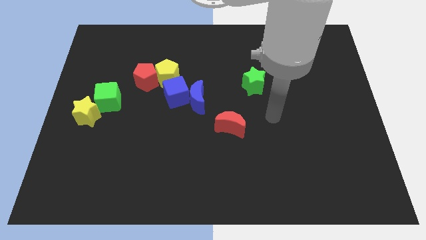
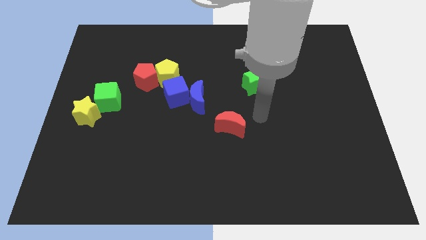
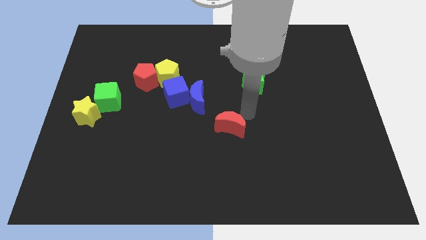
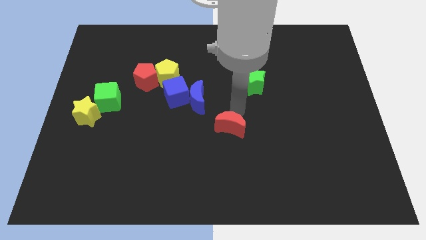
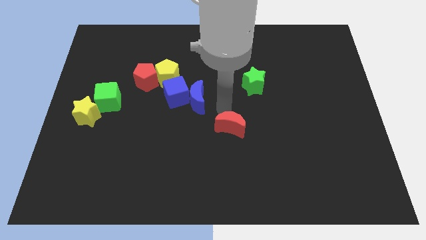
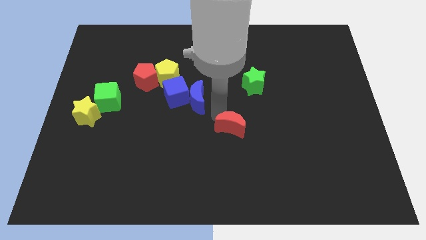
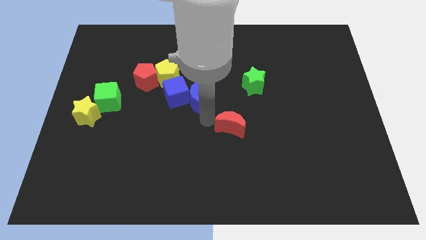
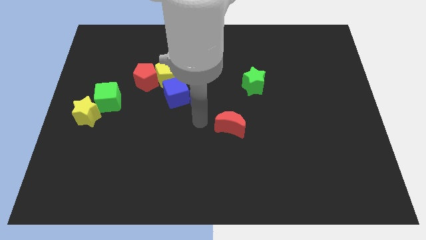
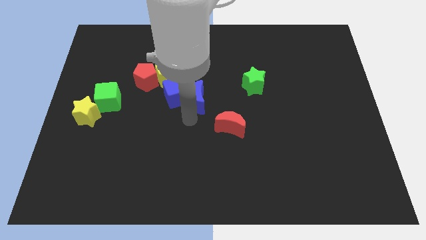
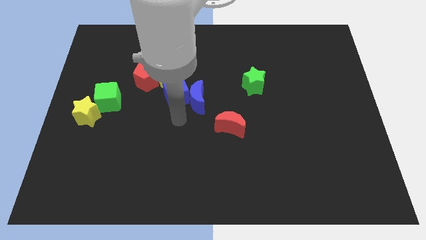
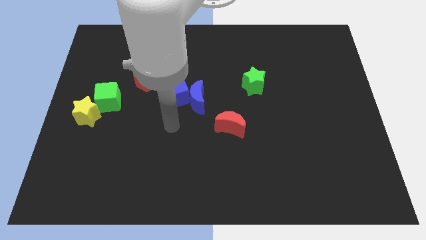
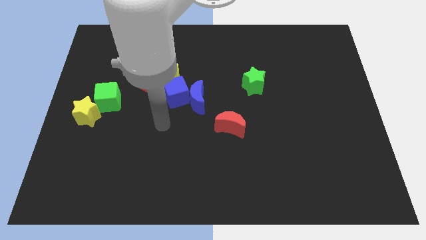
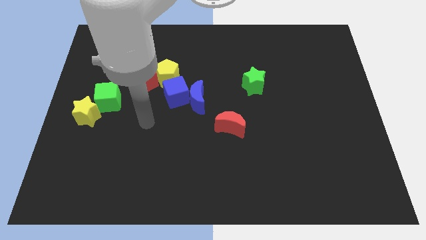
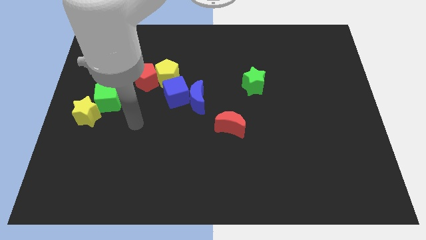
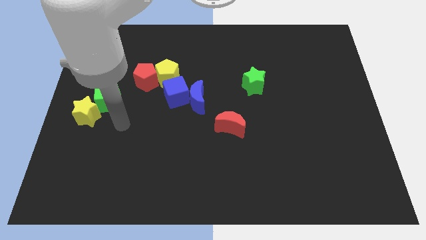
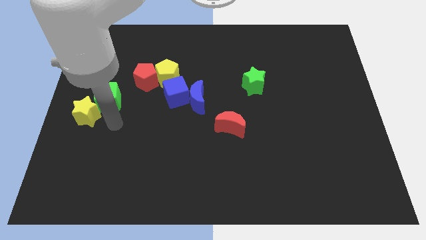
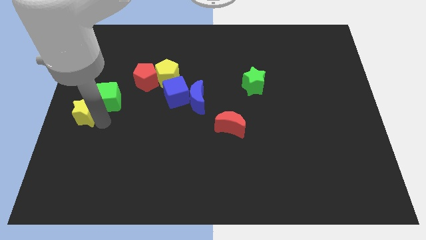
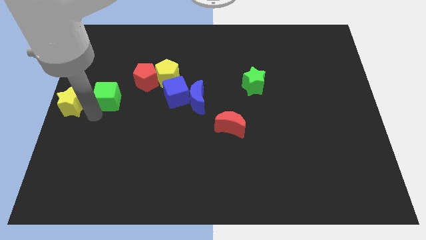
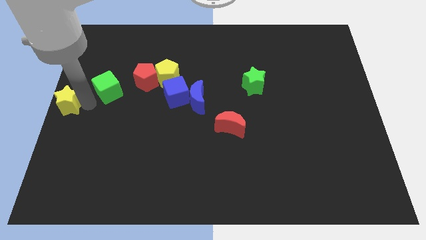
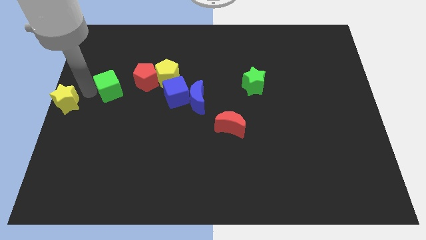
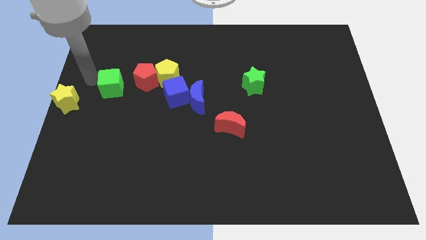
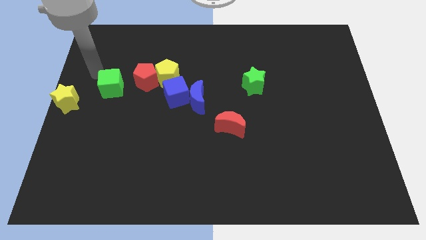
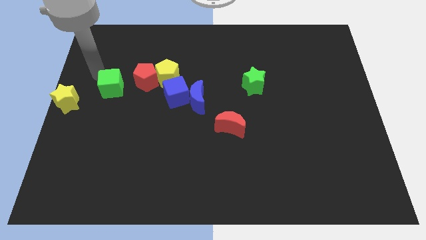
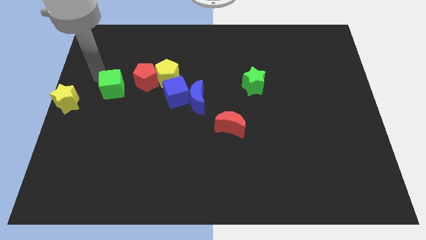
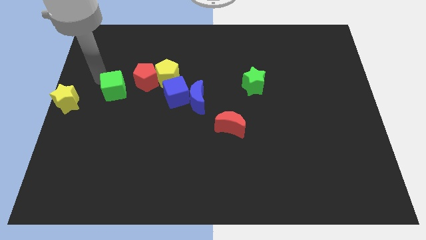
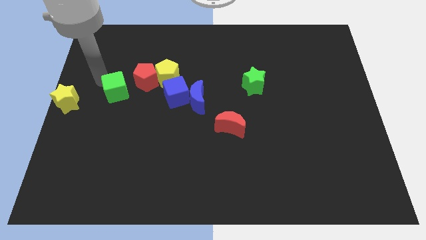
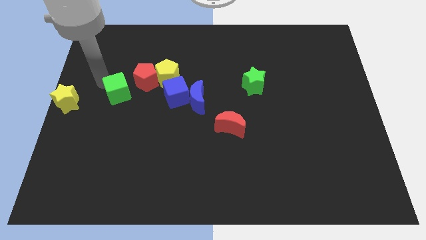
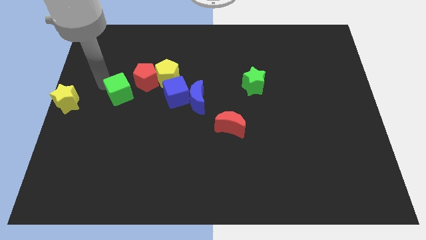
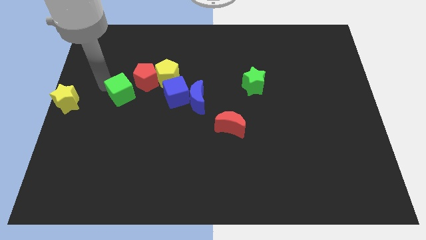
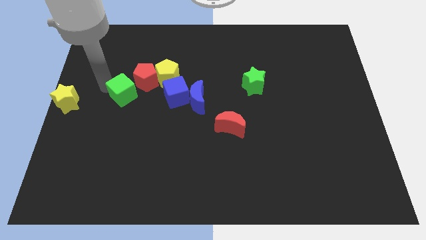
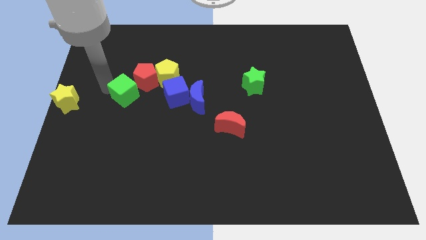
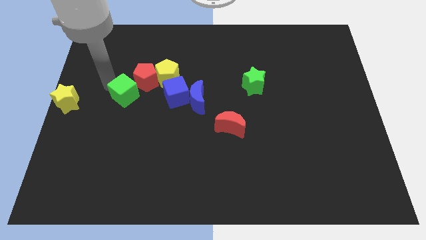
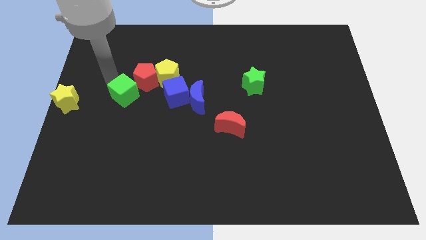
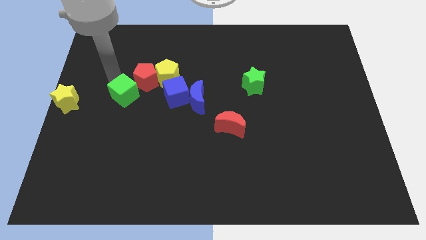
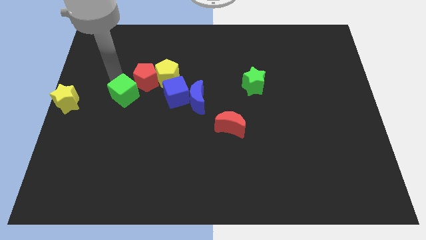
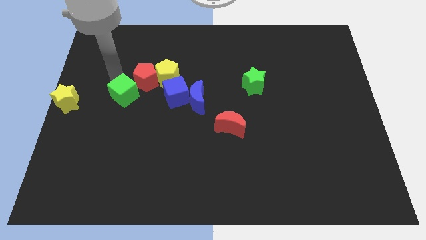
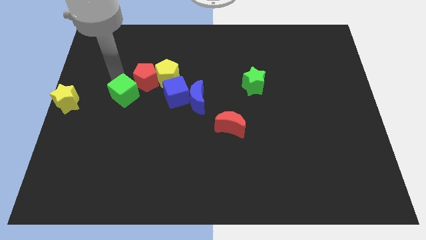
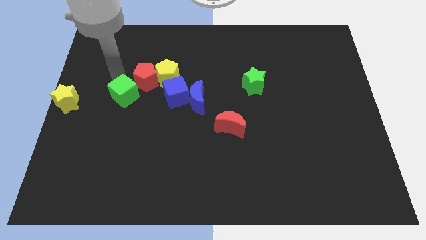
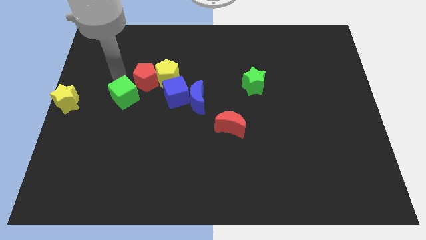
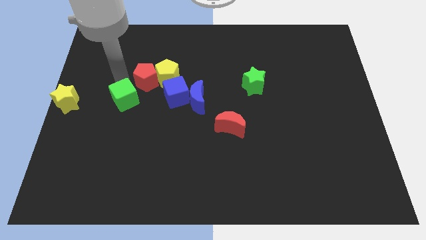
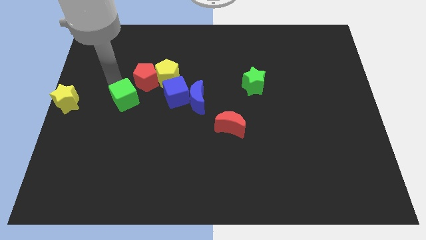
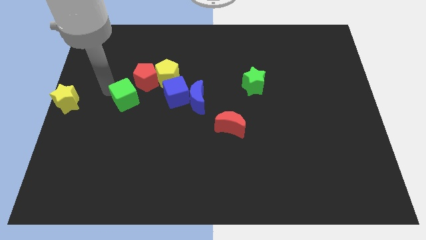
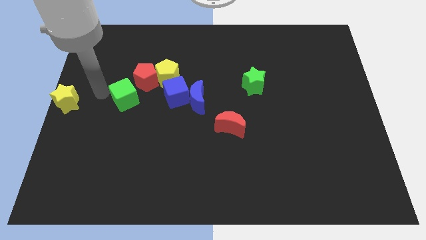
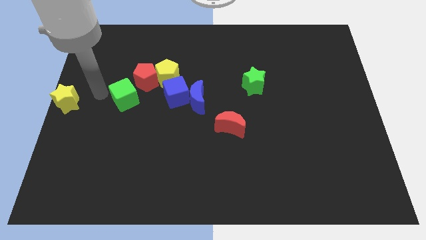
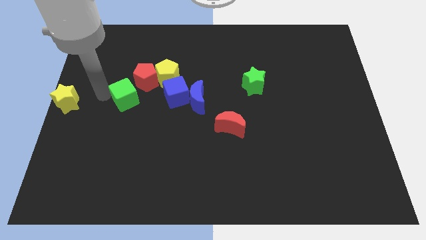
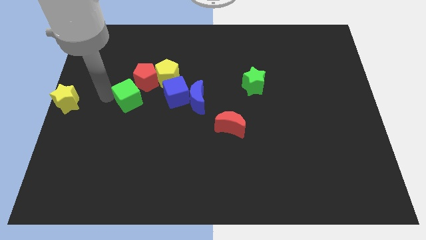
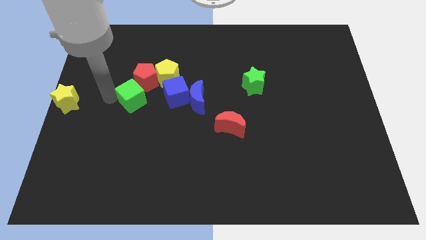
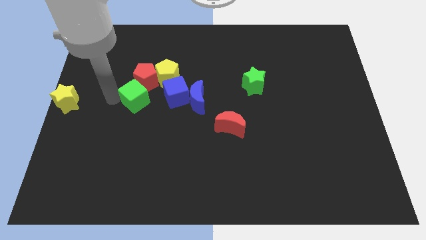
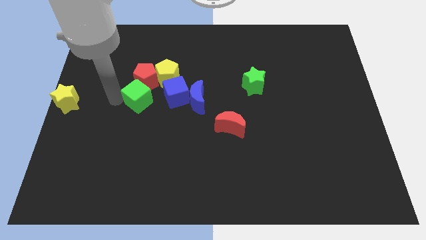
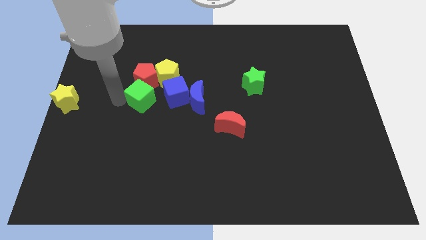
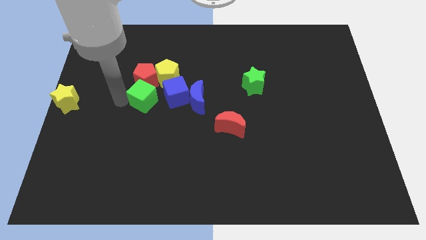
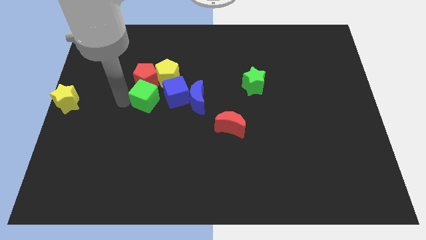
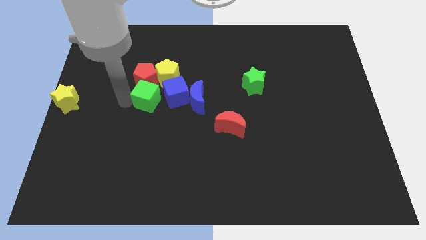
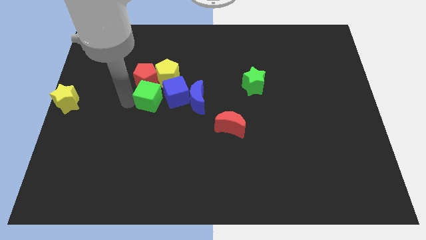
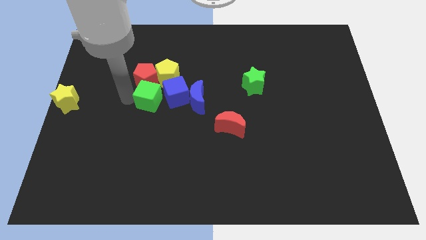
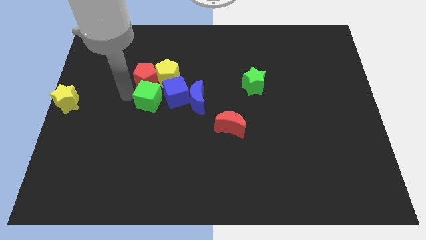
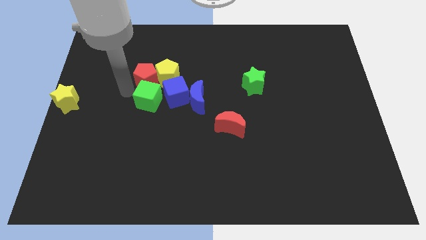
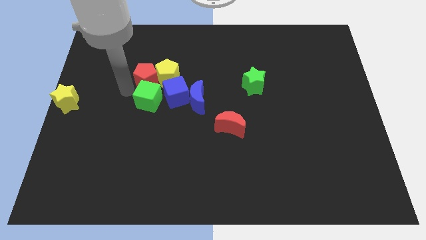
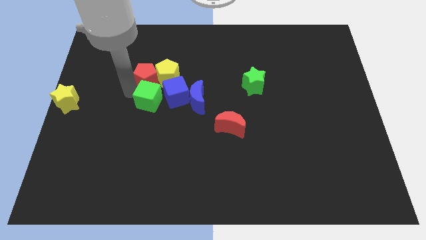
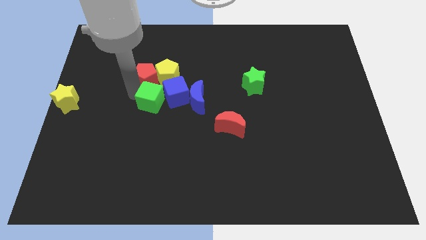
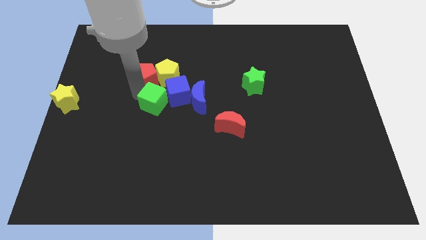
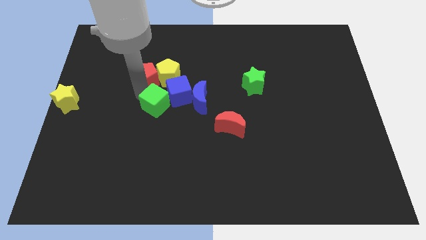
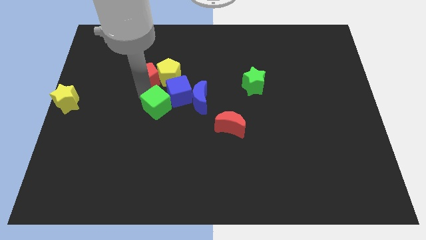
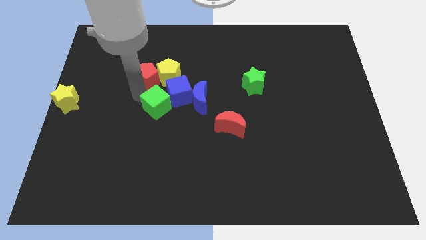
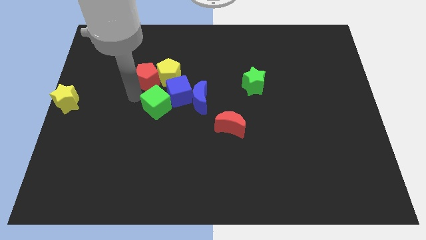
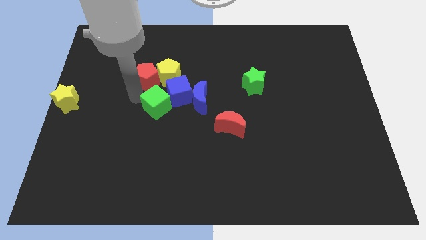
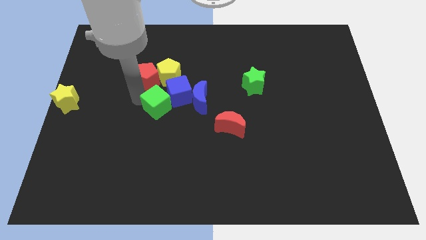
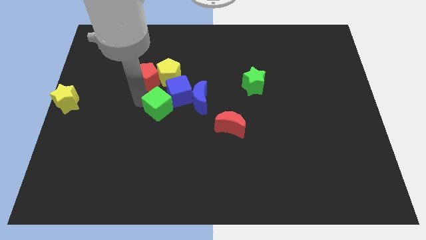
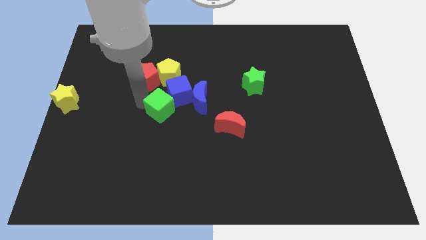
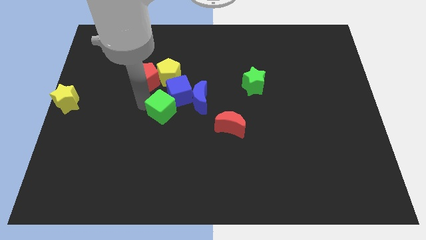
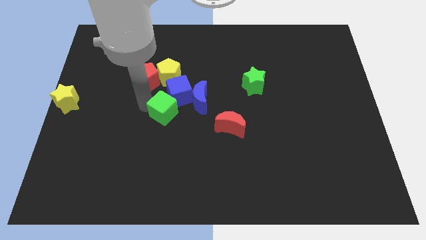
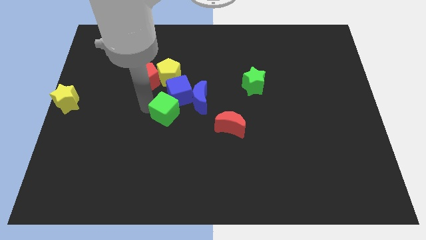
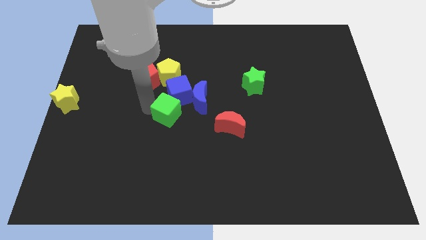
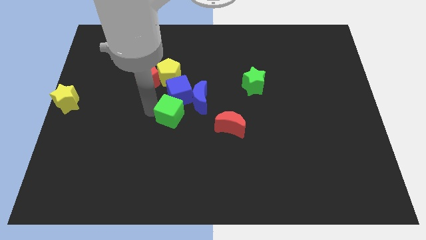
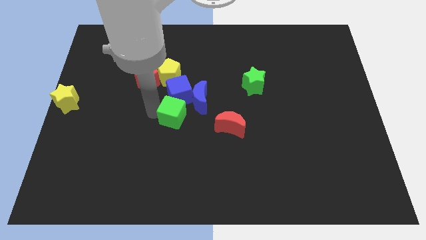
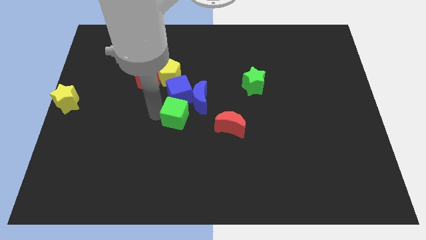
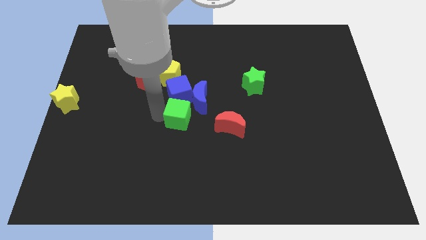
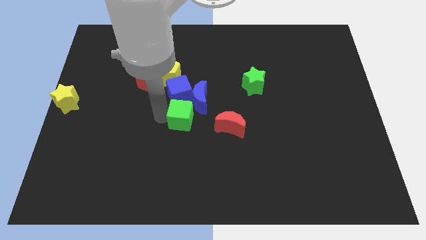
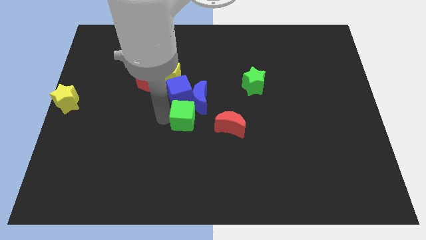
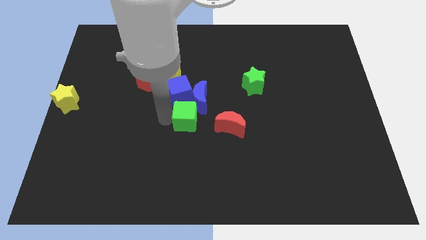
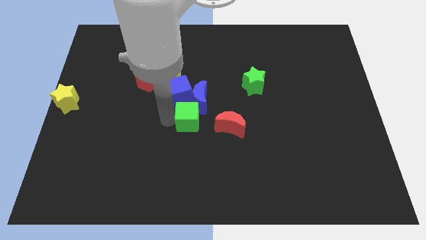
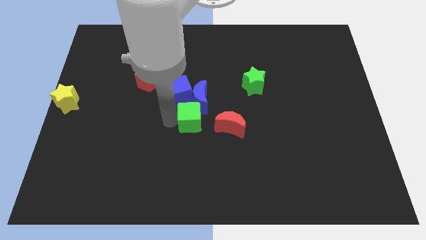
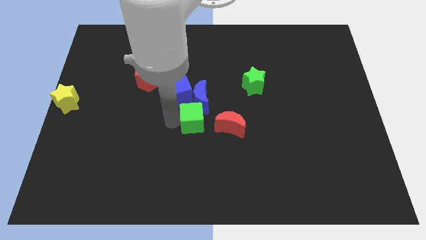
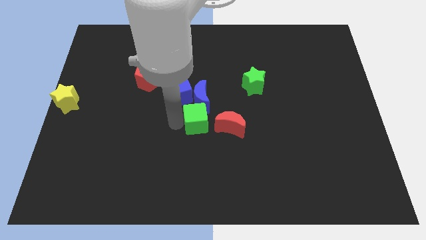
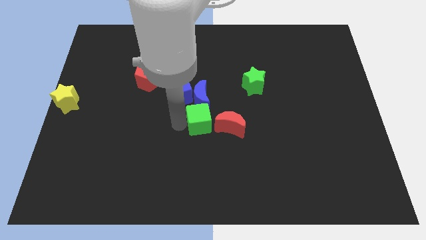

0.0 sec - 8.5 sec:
slide the green cube right
